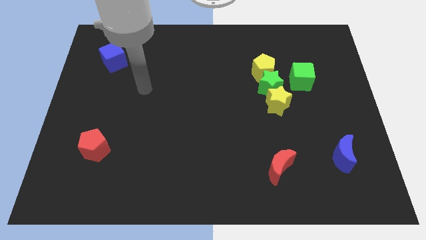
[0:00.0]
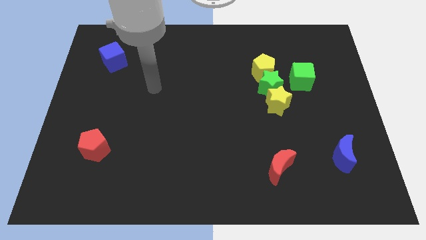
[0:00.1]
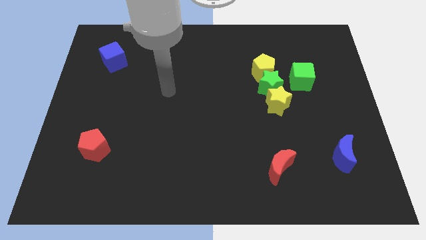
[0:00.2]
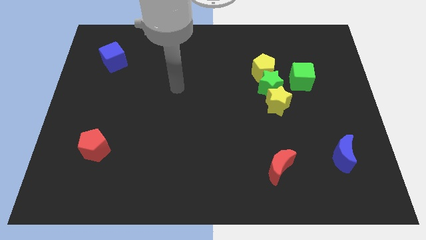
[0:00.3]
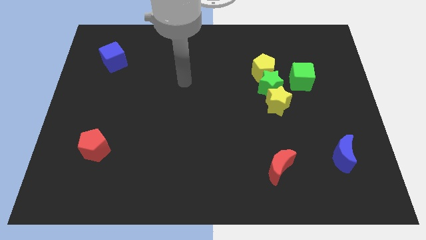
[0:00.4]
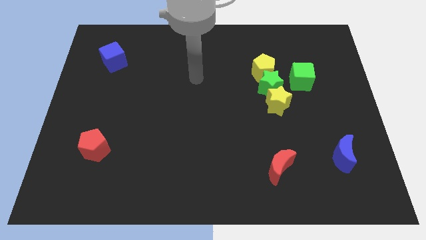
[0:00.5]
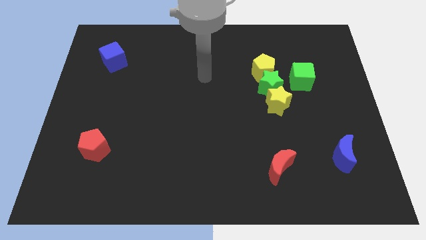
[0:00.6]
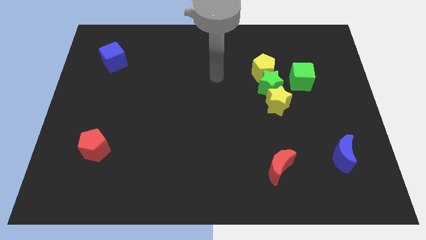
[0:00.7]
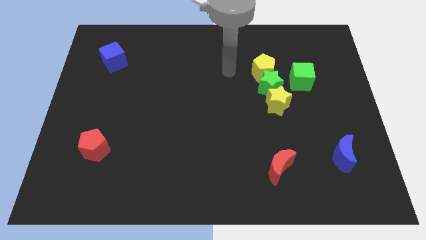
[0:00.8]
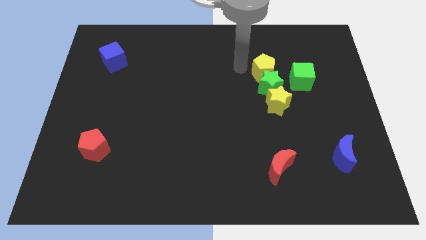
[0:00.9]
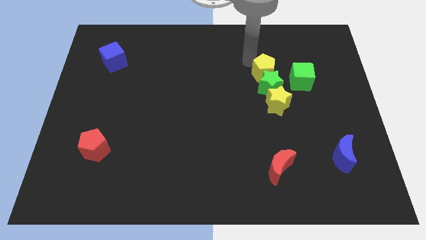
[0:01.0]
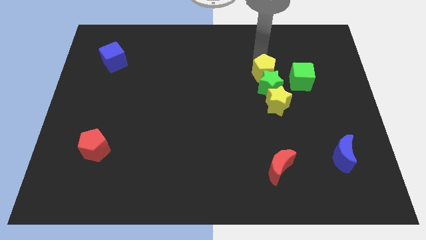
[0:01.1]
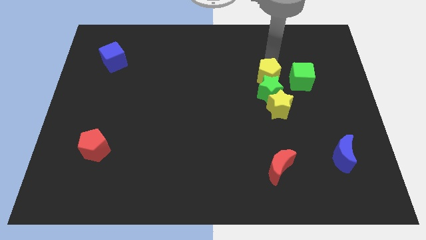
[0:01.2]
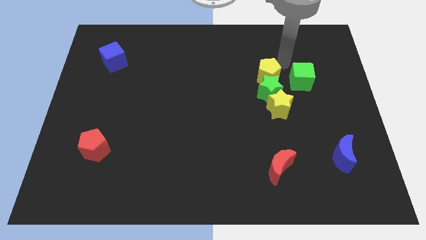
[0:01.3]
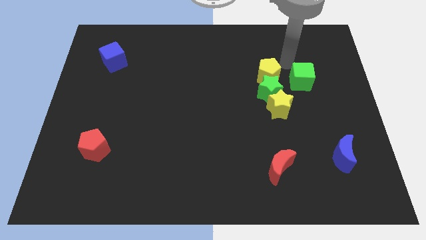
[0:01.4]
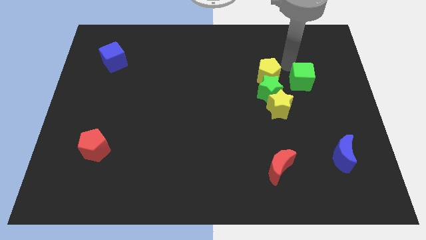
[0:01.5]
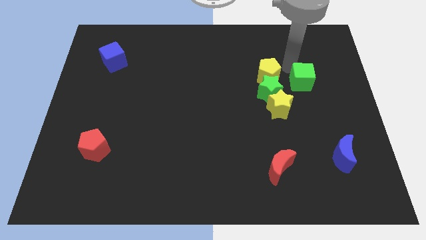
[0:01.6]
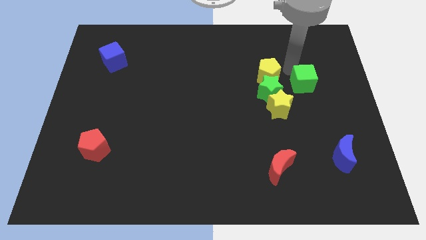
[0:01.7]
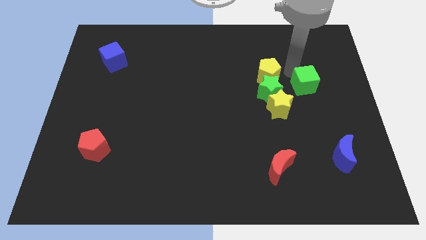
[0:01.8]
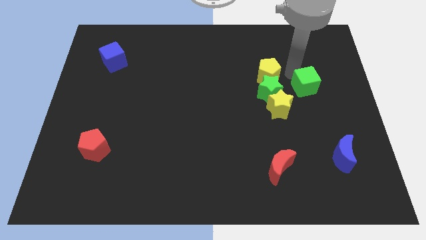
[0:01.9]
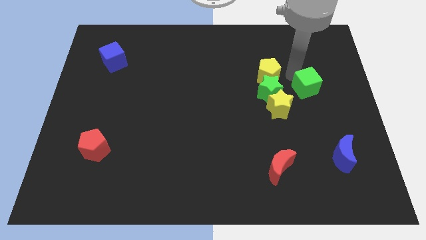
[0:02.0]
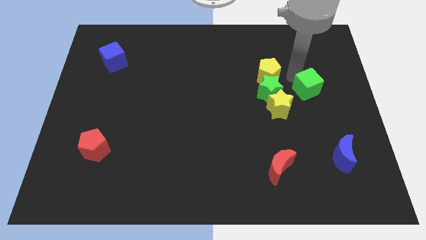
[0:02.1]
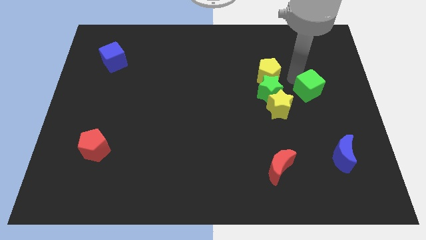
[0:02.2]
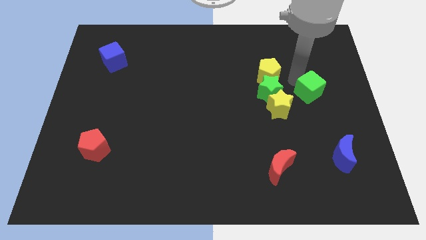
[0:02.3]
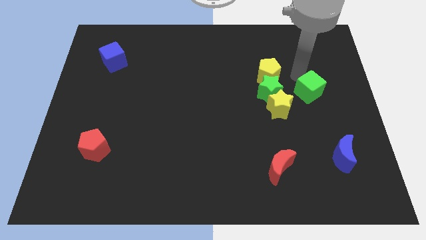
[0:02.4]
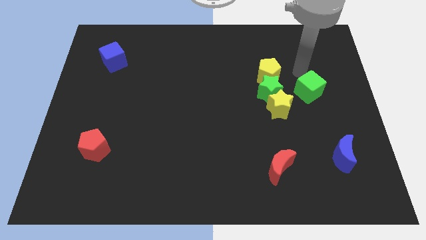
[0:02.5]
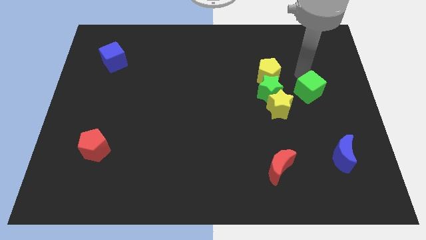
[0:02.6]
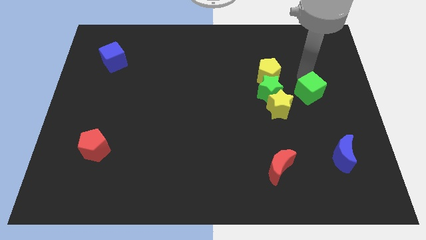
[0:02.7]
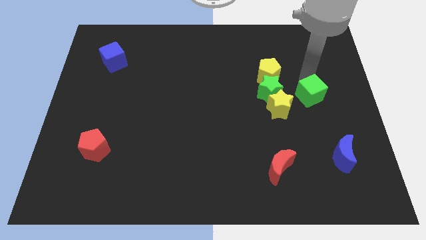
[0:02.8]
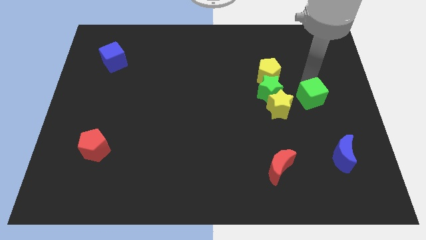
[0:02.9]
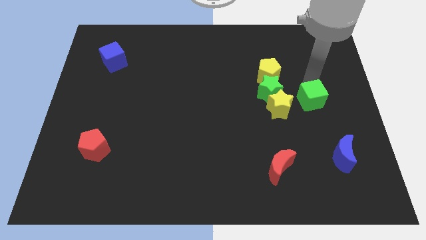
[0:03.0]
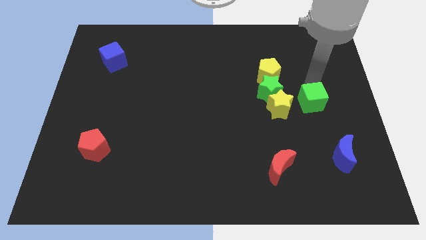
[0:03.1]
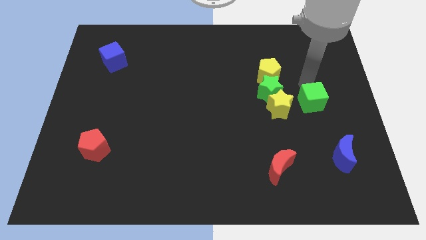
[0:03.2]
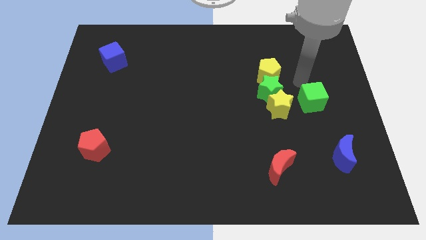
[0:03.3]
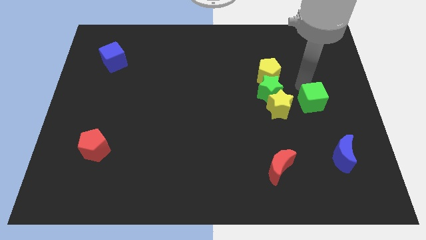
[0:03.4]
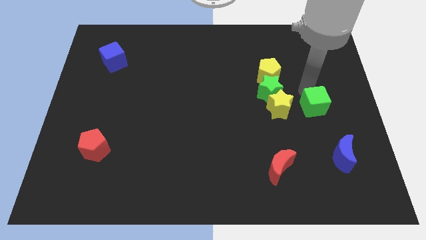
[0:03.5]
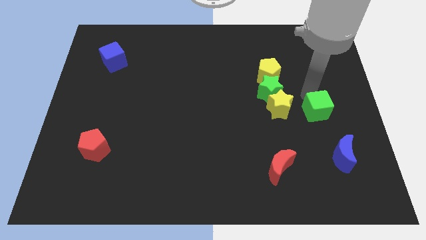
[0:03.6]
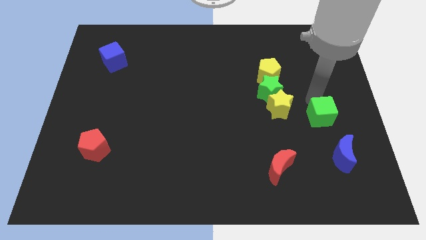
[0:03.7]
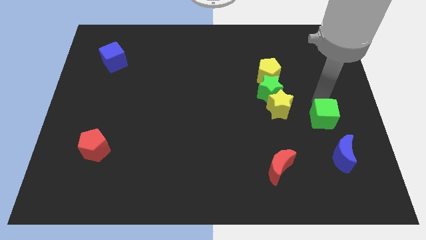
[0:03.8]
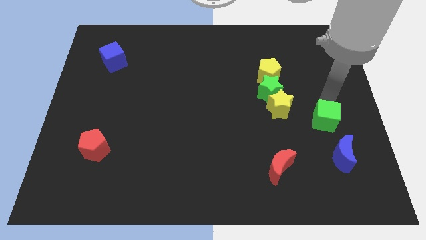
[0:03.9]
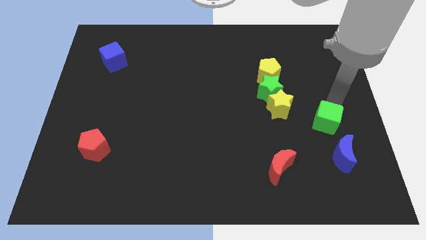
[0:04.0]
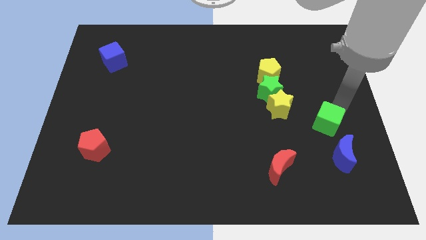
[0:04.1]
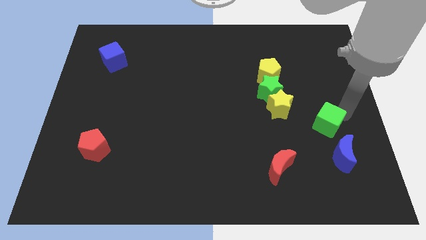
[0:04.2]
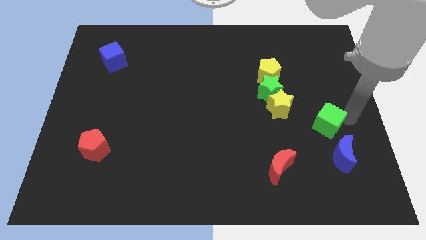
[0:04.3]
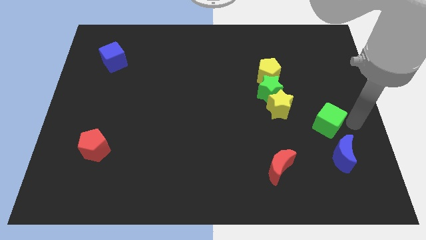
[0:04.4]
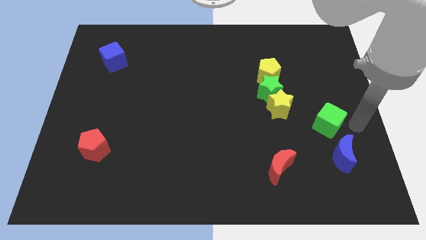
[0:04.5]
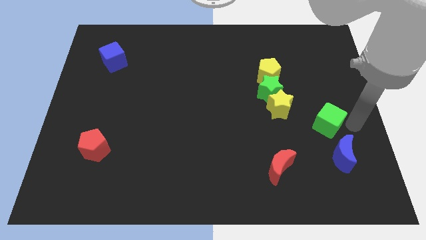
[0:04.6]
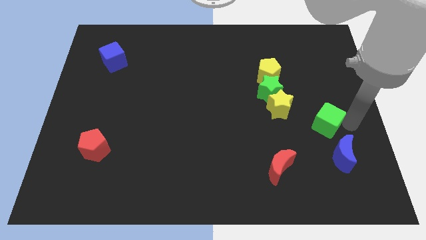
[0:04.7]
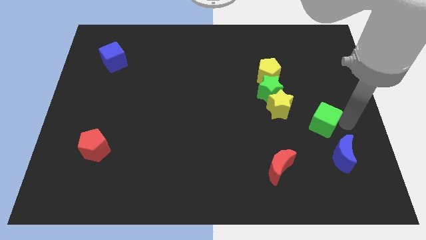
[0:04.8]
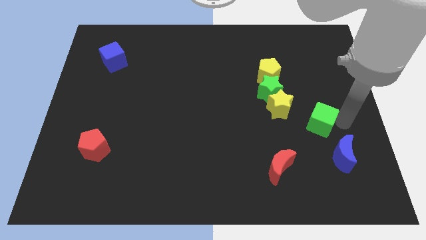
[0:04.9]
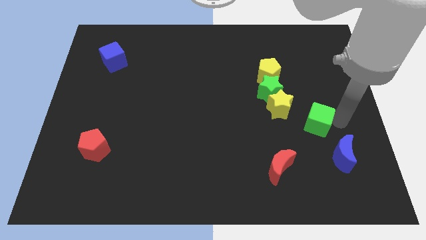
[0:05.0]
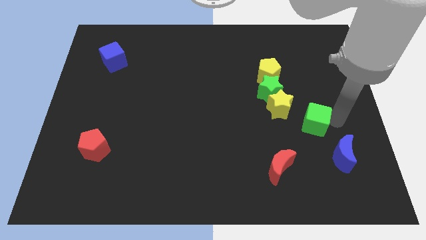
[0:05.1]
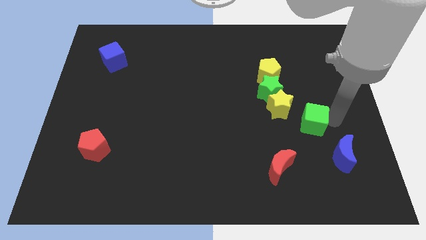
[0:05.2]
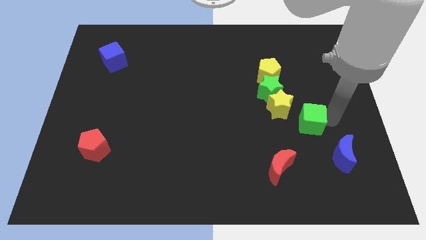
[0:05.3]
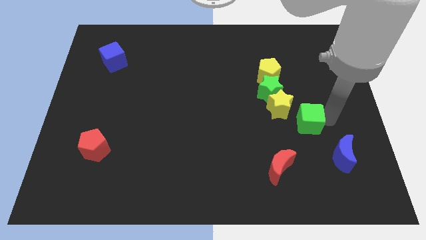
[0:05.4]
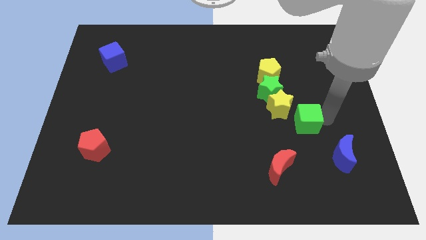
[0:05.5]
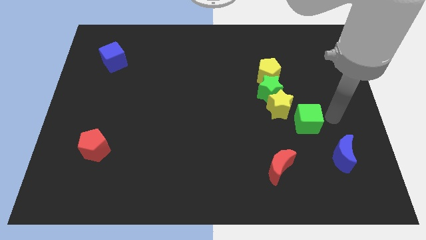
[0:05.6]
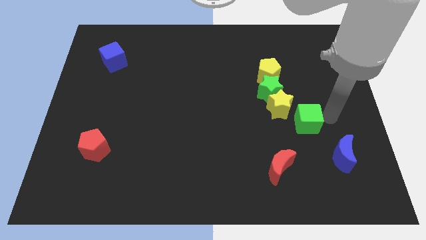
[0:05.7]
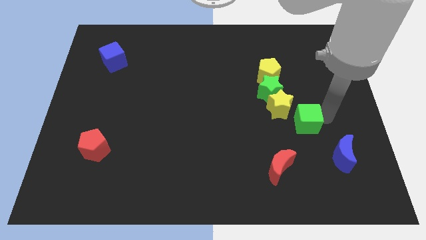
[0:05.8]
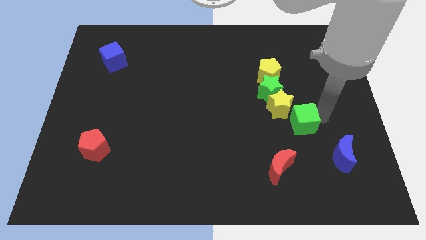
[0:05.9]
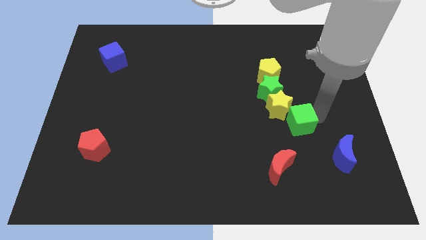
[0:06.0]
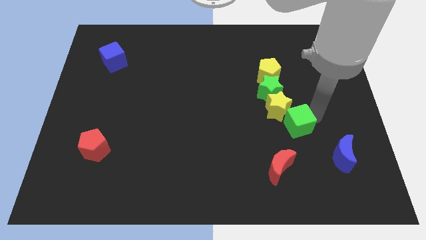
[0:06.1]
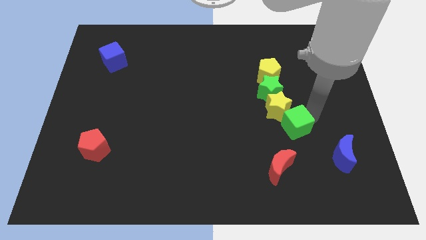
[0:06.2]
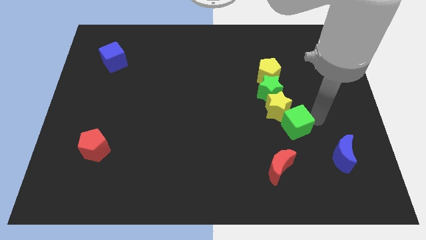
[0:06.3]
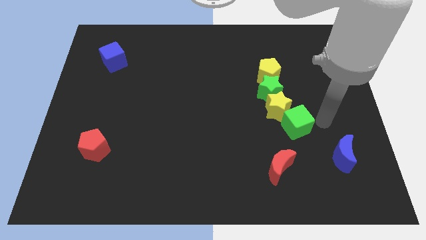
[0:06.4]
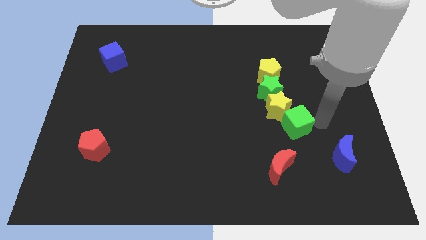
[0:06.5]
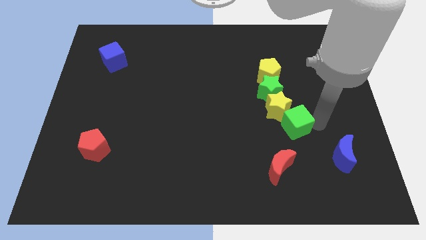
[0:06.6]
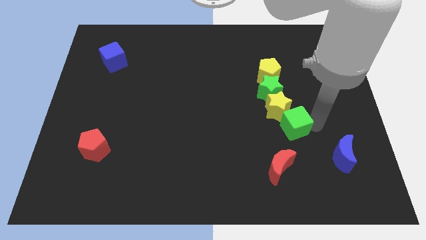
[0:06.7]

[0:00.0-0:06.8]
slide the green cube to the bottom of the green star
